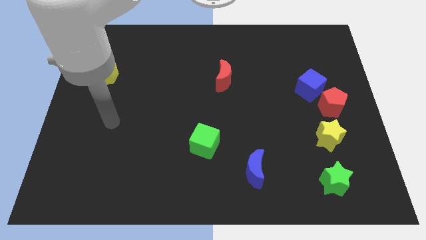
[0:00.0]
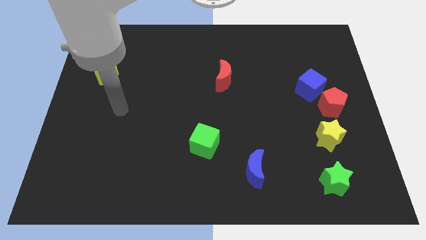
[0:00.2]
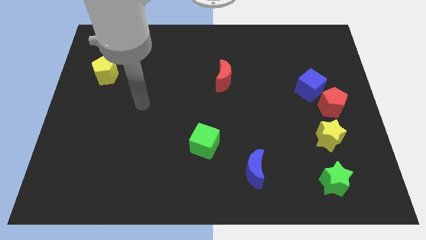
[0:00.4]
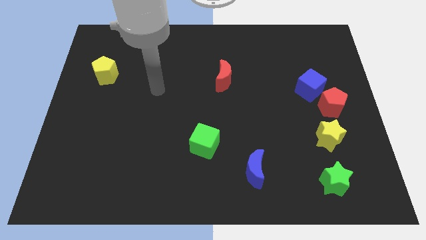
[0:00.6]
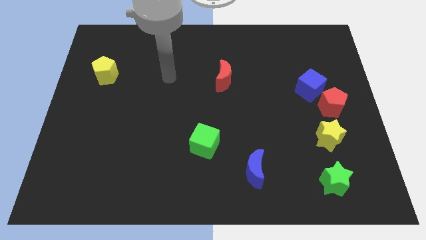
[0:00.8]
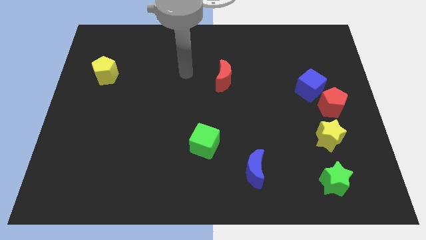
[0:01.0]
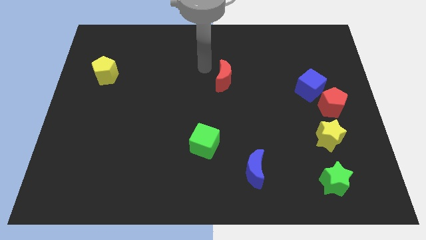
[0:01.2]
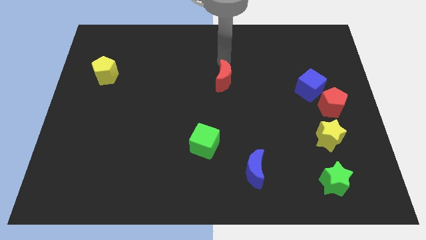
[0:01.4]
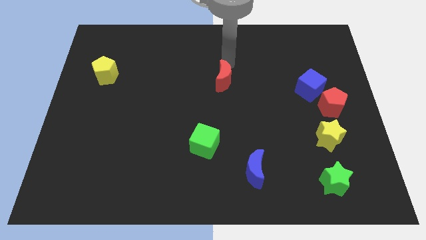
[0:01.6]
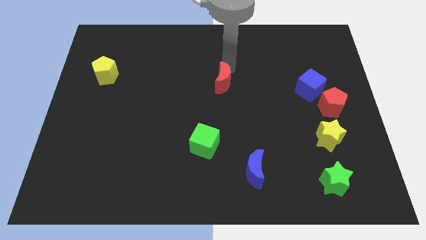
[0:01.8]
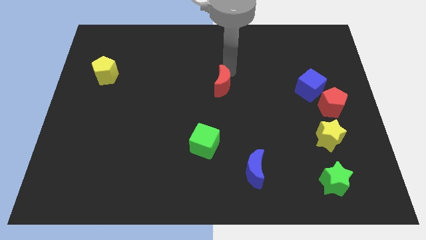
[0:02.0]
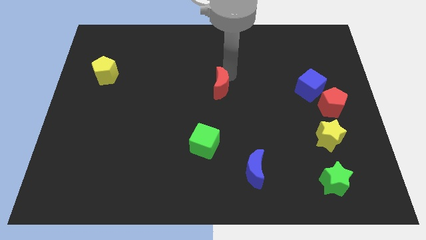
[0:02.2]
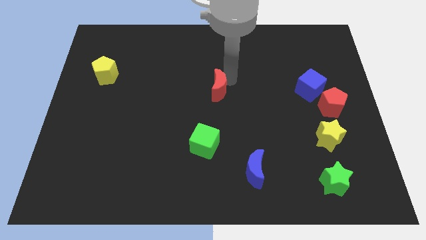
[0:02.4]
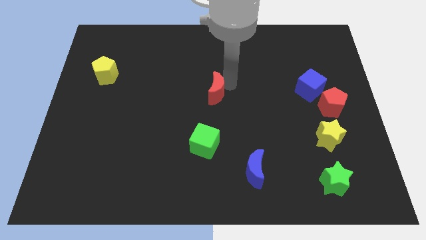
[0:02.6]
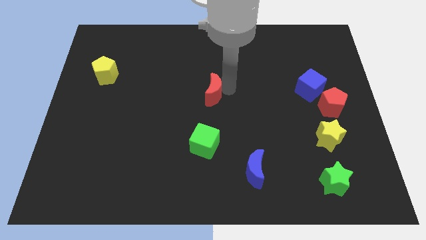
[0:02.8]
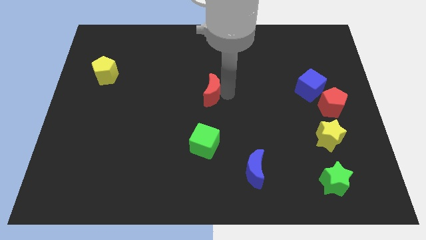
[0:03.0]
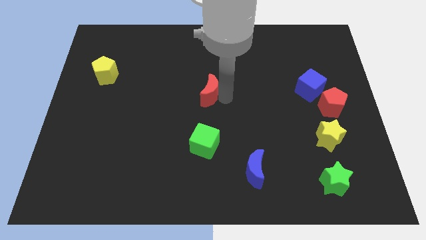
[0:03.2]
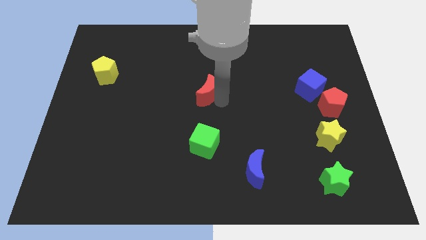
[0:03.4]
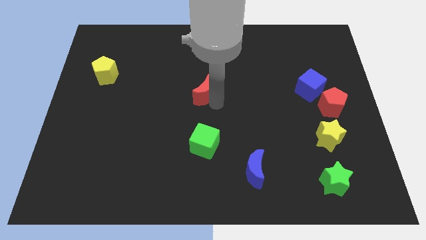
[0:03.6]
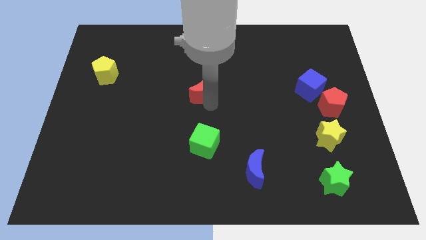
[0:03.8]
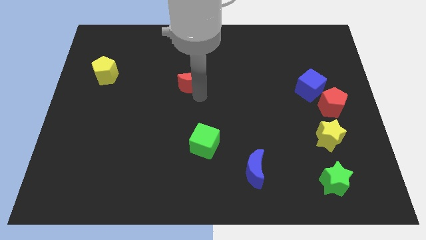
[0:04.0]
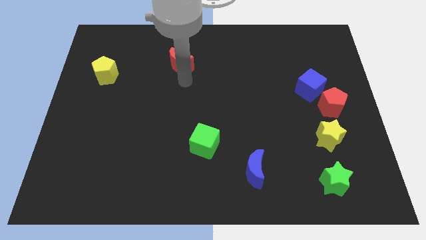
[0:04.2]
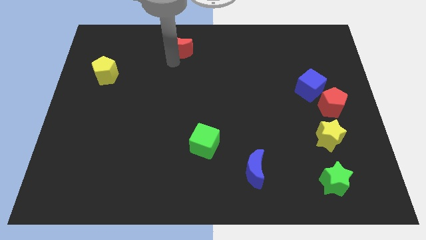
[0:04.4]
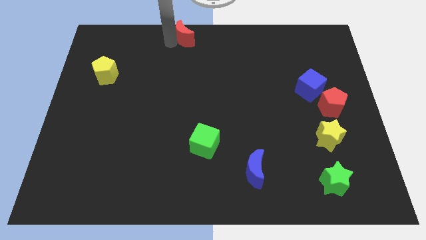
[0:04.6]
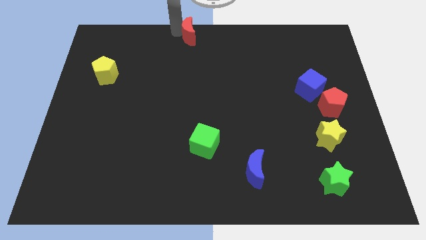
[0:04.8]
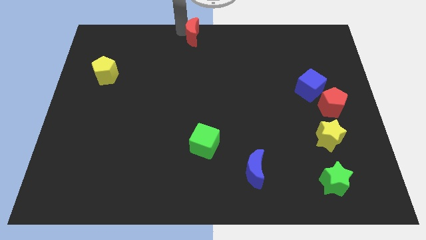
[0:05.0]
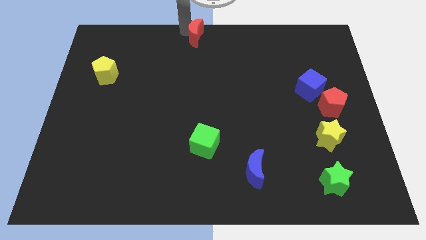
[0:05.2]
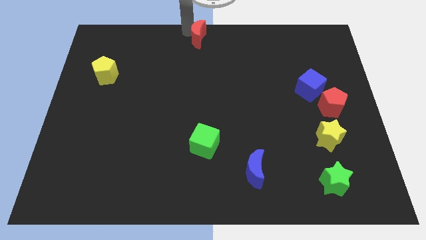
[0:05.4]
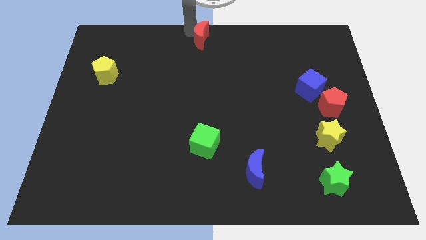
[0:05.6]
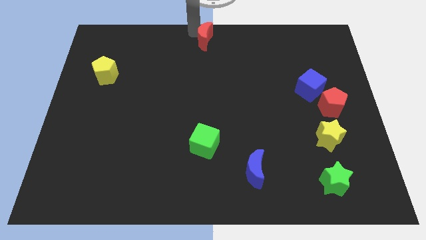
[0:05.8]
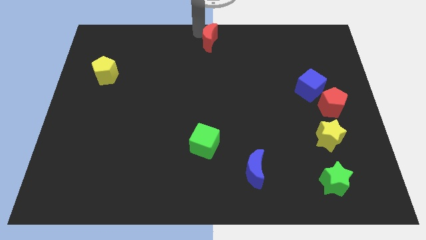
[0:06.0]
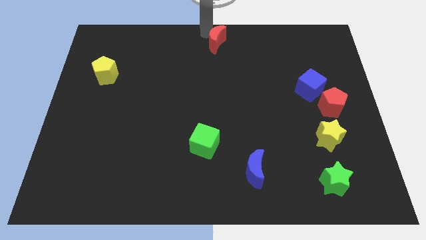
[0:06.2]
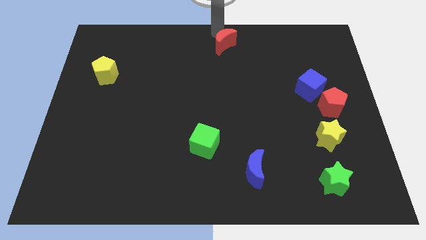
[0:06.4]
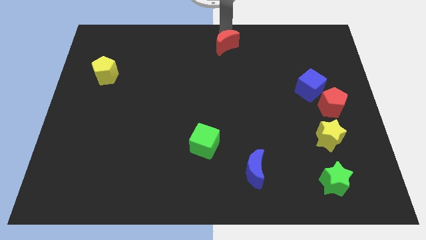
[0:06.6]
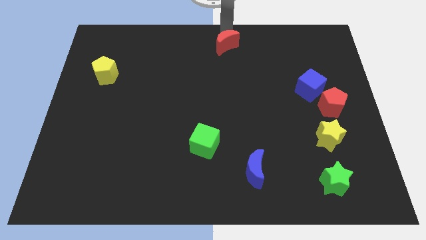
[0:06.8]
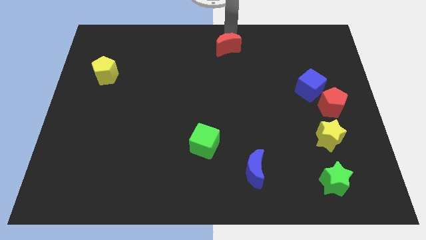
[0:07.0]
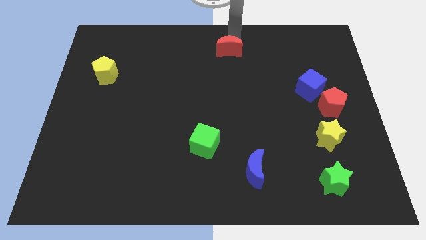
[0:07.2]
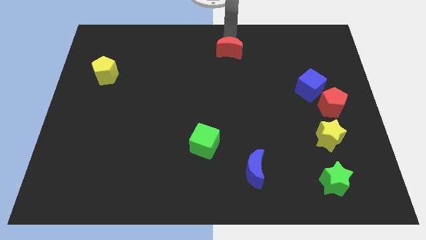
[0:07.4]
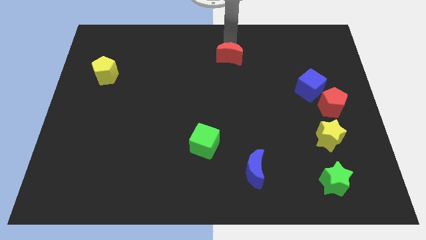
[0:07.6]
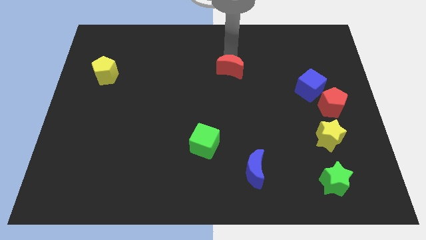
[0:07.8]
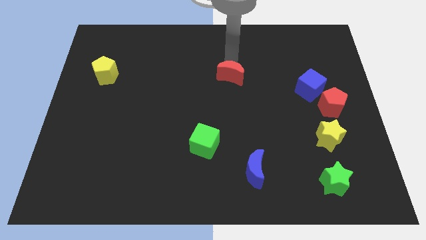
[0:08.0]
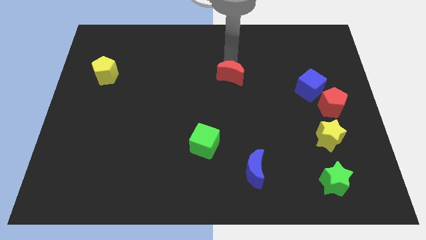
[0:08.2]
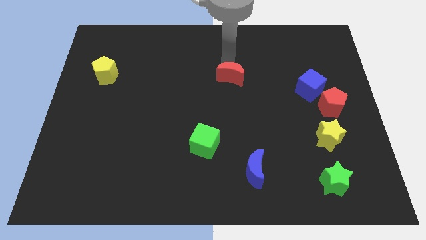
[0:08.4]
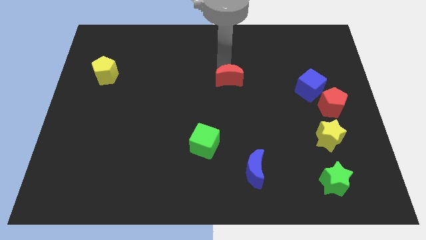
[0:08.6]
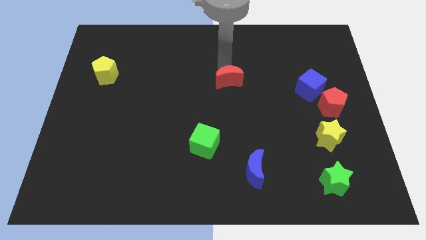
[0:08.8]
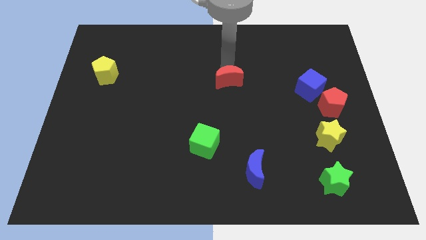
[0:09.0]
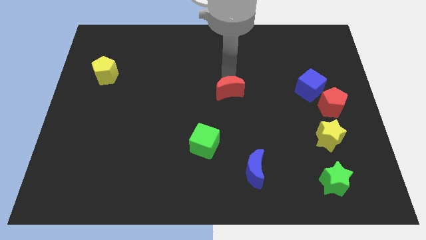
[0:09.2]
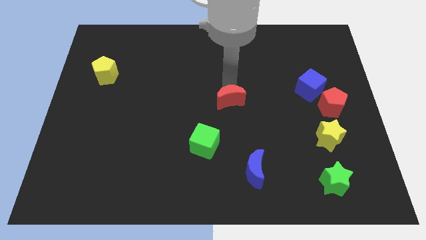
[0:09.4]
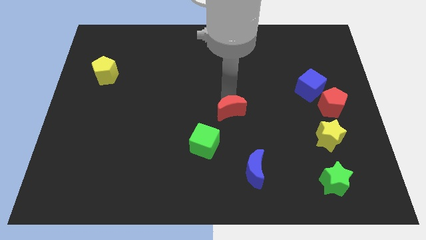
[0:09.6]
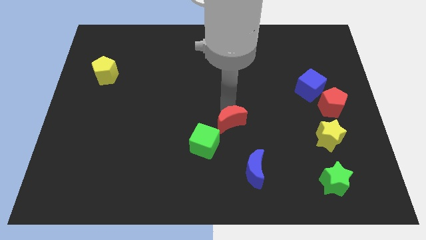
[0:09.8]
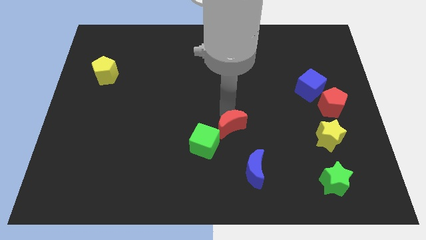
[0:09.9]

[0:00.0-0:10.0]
slide the red moon to the right of the green cube

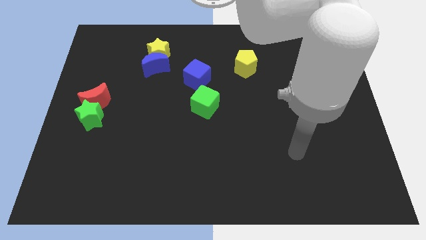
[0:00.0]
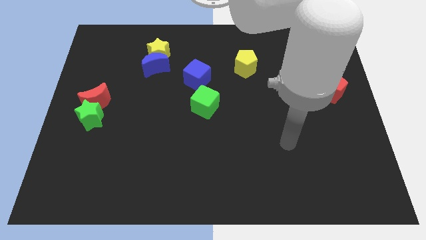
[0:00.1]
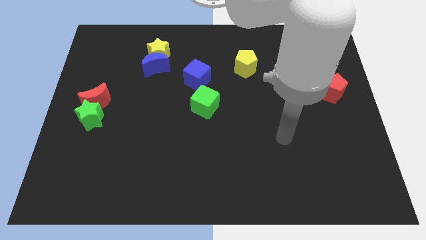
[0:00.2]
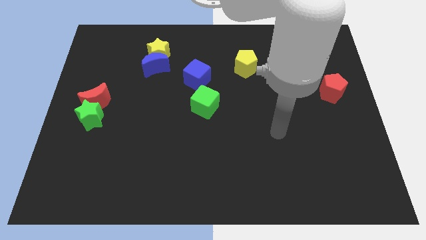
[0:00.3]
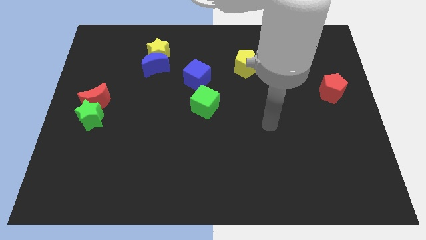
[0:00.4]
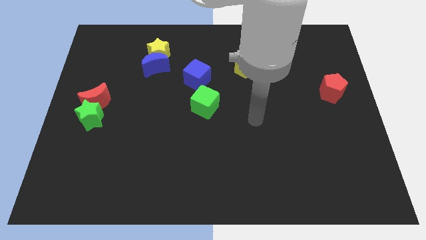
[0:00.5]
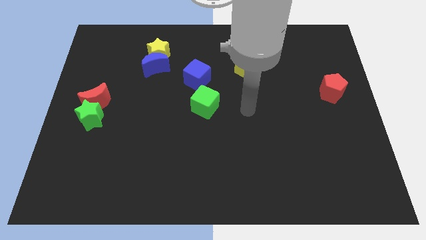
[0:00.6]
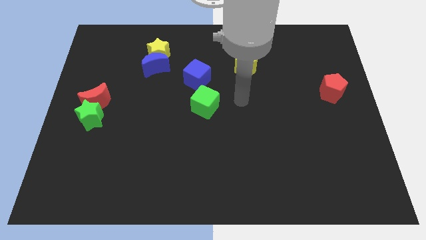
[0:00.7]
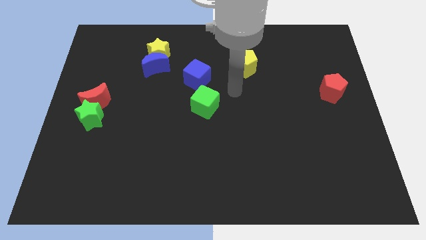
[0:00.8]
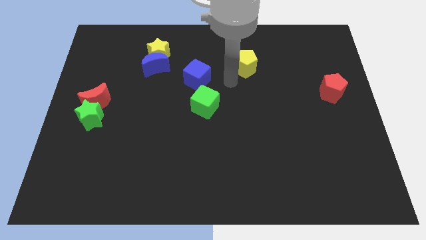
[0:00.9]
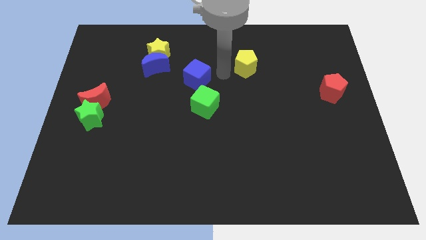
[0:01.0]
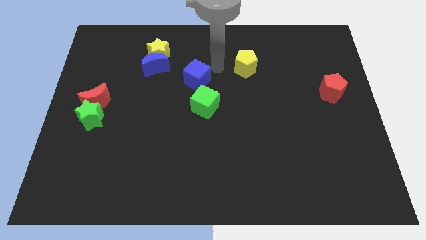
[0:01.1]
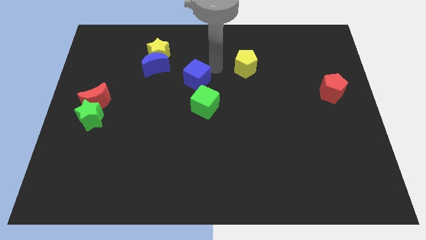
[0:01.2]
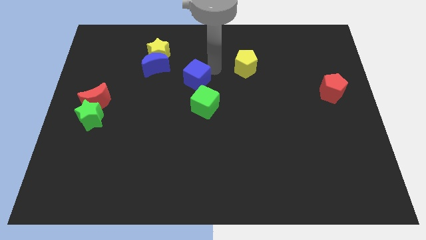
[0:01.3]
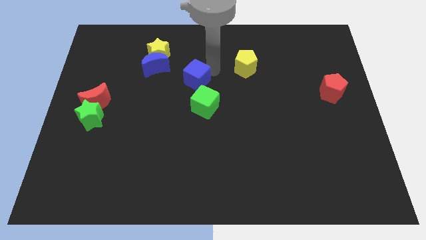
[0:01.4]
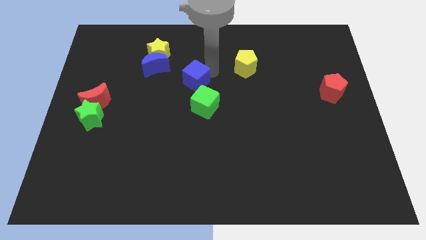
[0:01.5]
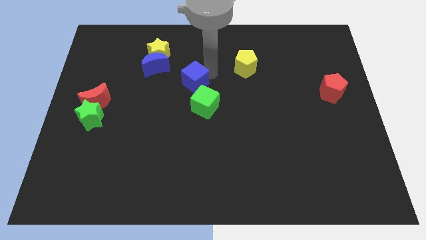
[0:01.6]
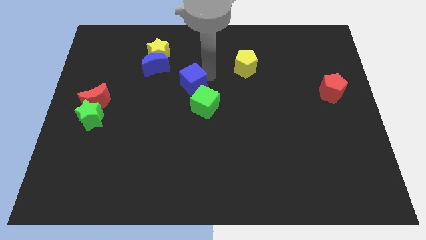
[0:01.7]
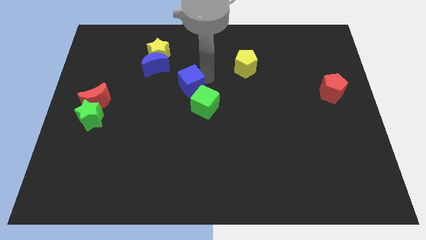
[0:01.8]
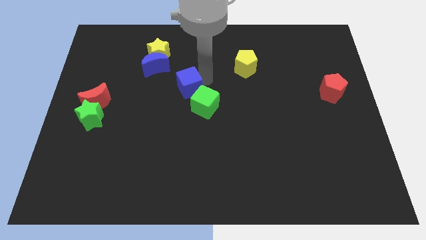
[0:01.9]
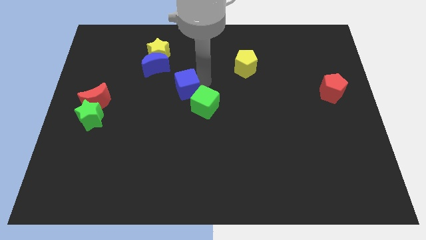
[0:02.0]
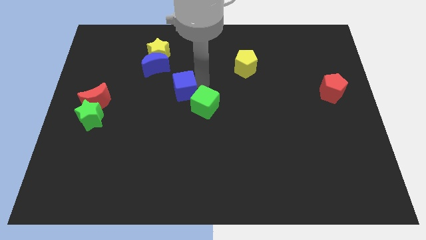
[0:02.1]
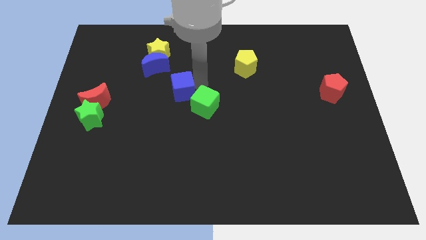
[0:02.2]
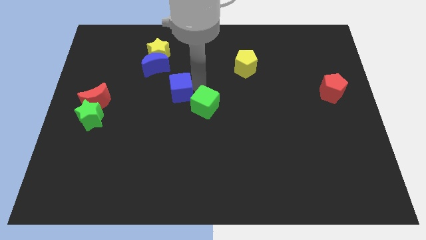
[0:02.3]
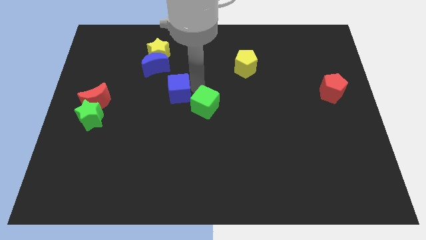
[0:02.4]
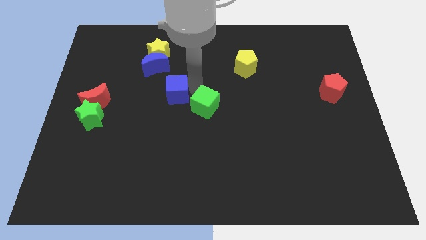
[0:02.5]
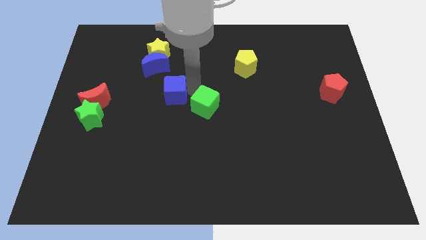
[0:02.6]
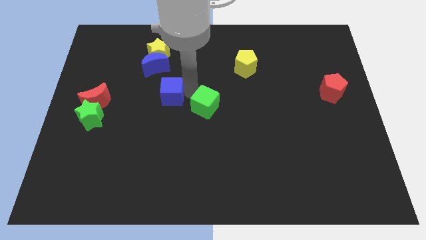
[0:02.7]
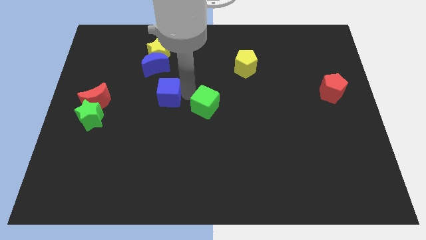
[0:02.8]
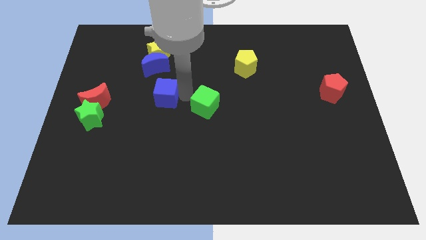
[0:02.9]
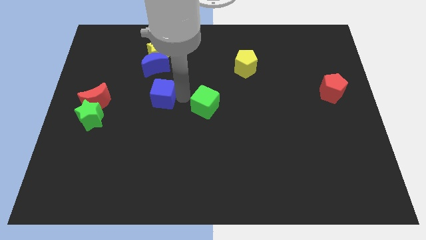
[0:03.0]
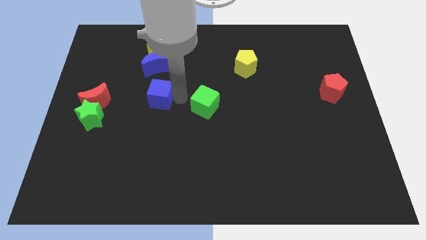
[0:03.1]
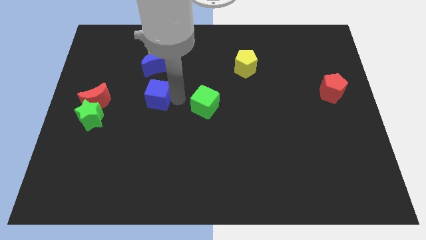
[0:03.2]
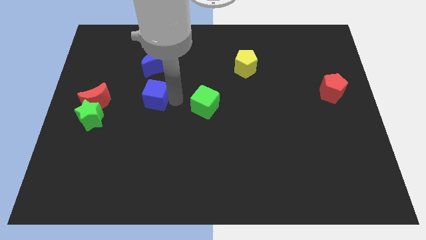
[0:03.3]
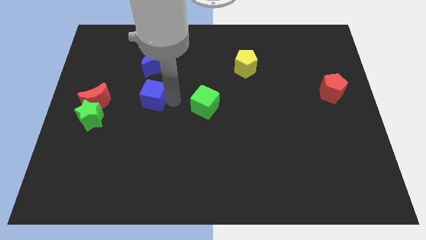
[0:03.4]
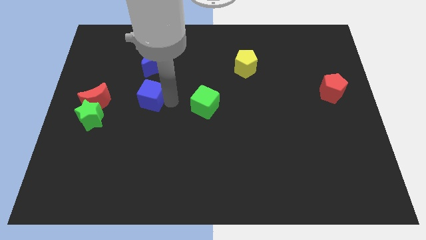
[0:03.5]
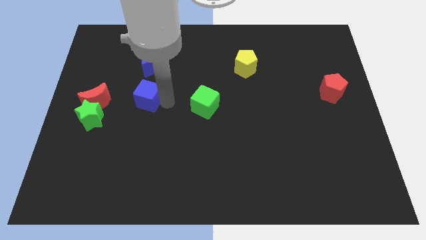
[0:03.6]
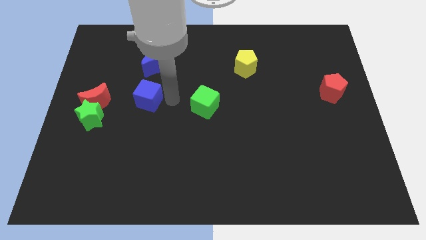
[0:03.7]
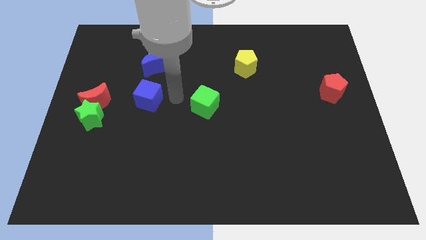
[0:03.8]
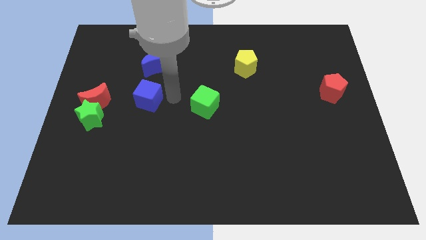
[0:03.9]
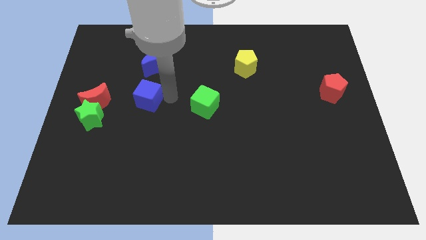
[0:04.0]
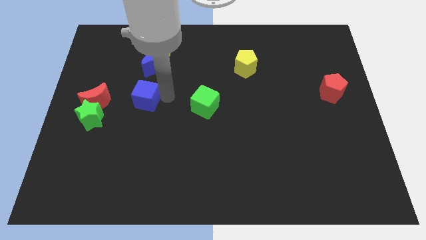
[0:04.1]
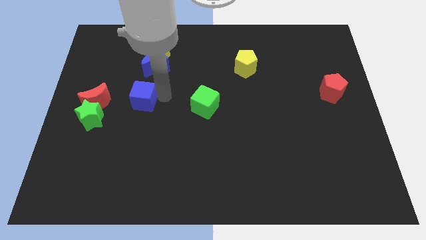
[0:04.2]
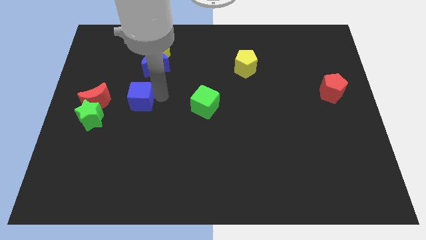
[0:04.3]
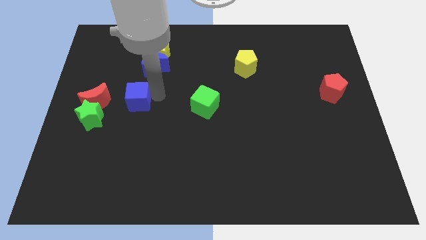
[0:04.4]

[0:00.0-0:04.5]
move the blue cube to the top right side of the green star
